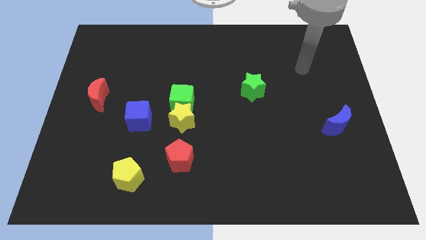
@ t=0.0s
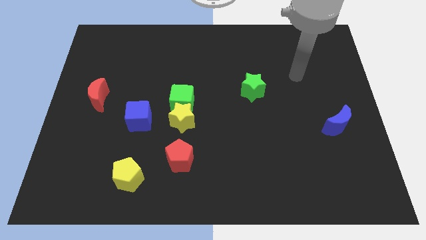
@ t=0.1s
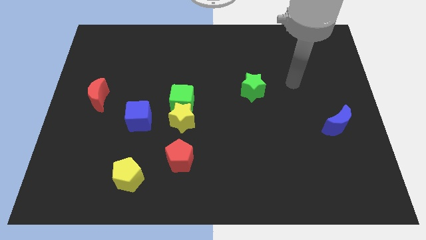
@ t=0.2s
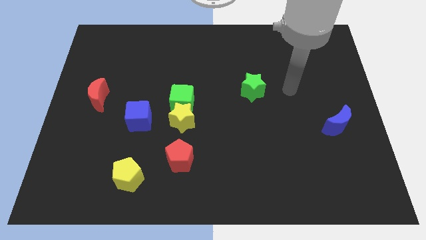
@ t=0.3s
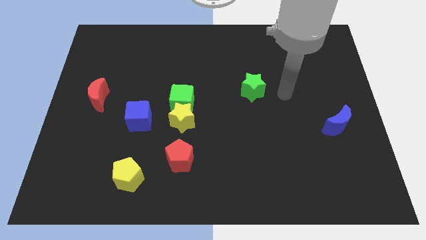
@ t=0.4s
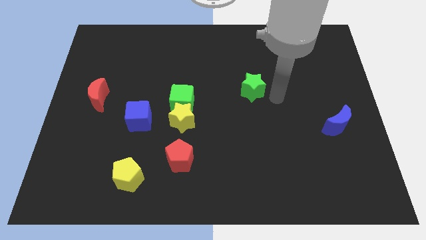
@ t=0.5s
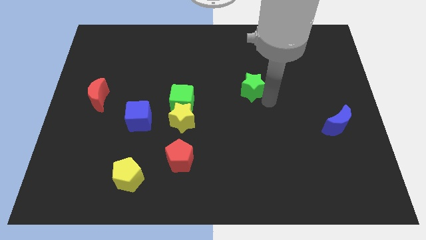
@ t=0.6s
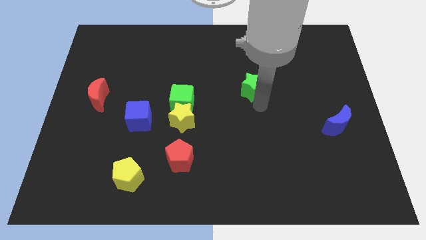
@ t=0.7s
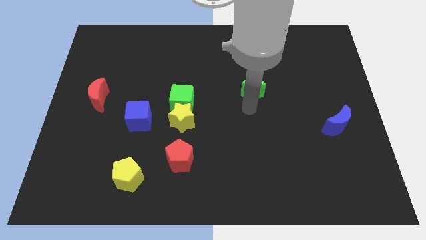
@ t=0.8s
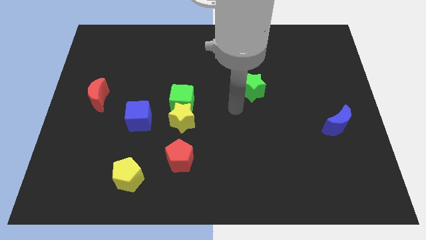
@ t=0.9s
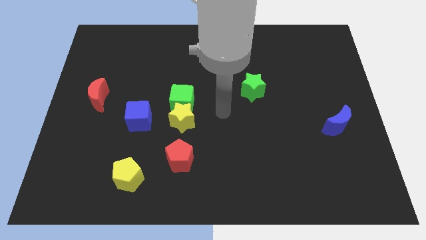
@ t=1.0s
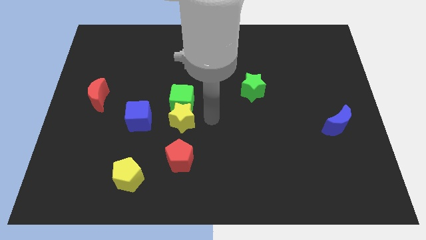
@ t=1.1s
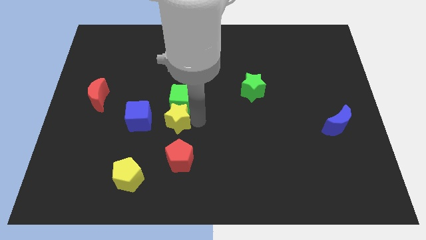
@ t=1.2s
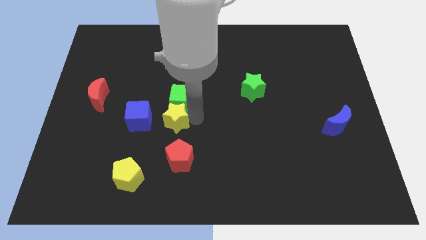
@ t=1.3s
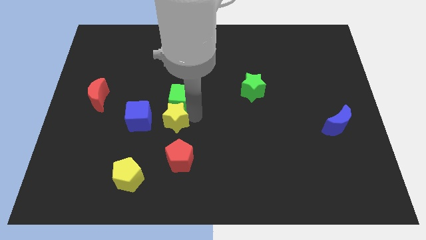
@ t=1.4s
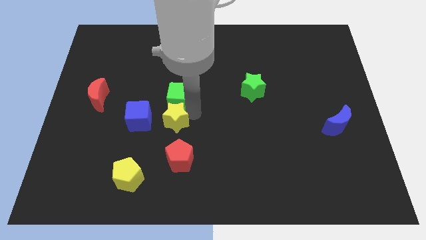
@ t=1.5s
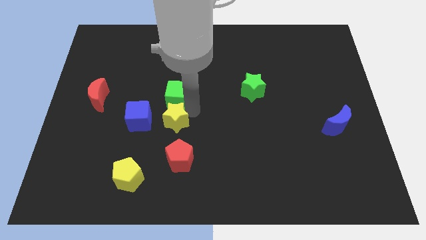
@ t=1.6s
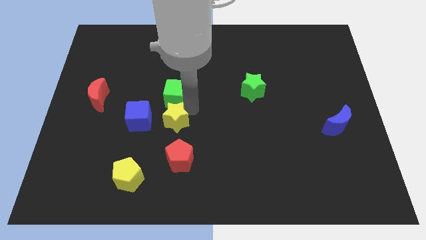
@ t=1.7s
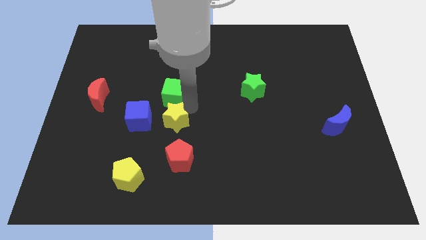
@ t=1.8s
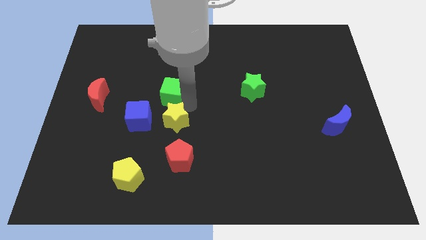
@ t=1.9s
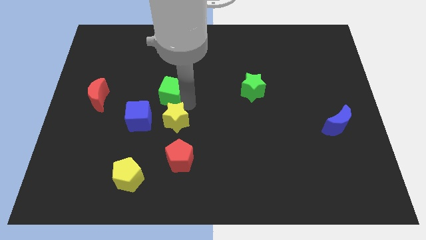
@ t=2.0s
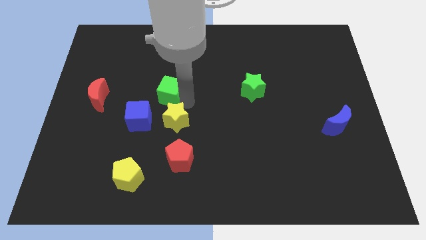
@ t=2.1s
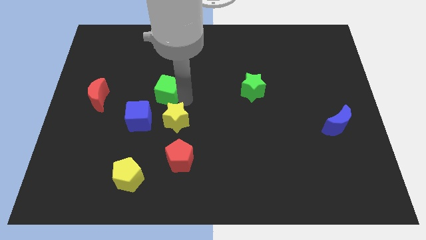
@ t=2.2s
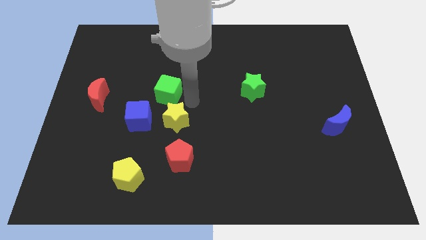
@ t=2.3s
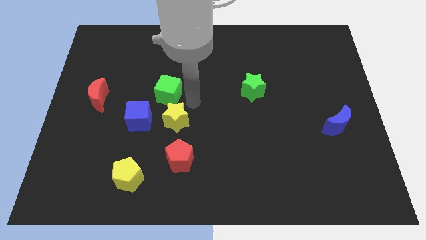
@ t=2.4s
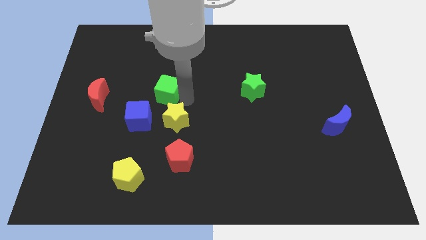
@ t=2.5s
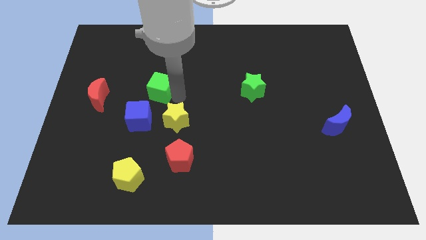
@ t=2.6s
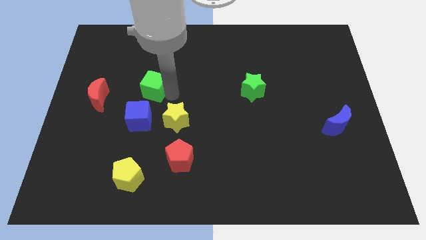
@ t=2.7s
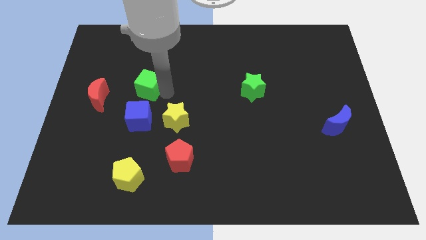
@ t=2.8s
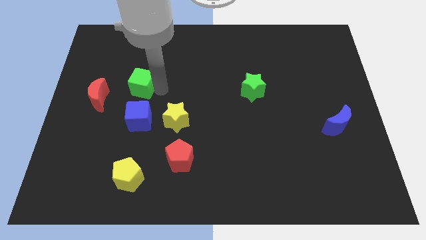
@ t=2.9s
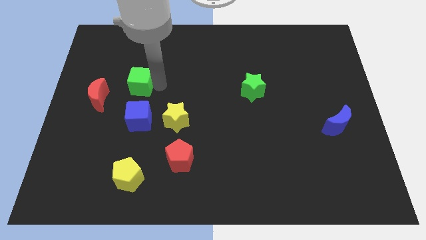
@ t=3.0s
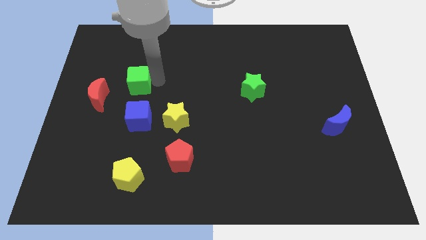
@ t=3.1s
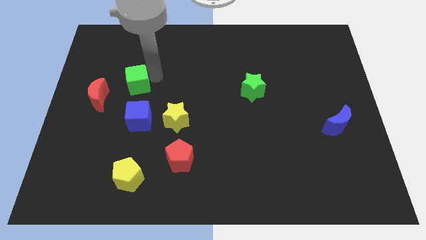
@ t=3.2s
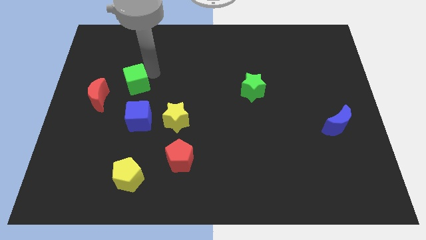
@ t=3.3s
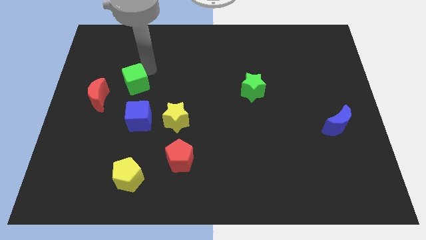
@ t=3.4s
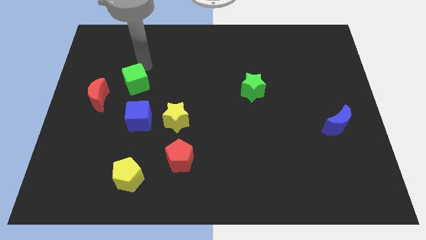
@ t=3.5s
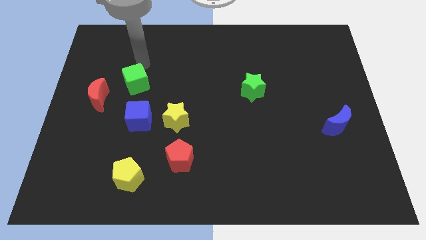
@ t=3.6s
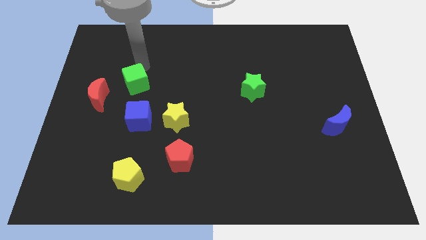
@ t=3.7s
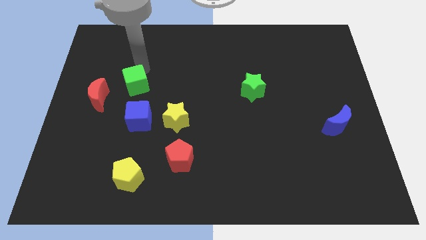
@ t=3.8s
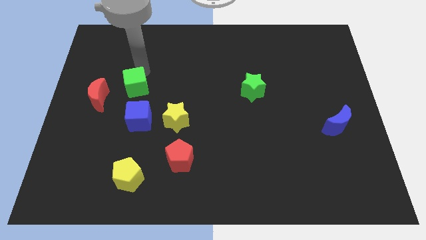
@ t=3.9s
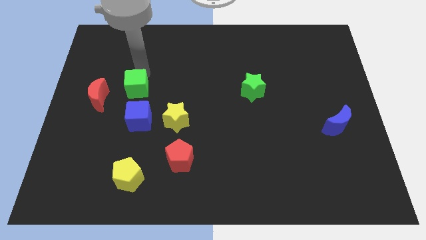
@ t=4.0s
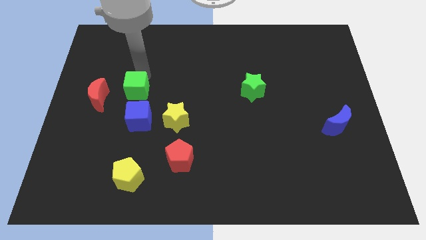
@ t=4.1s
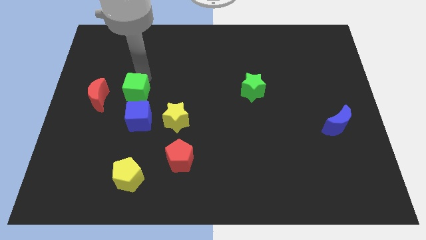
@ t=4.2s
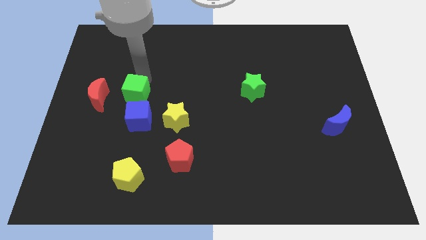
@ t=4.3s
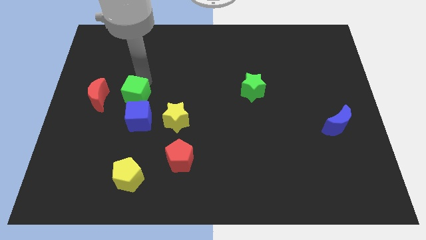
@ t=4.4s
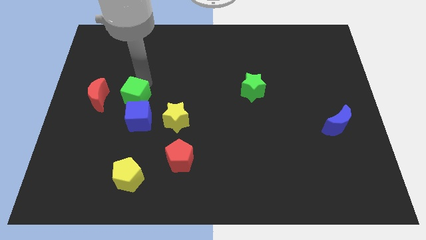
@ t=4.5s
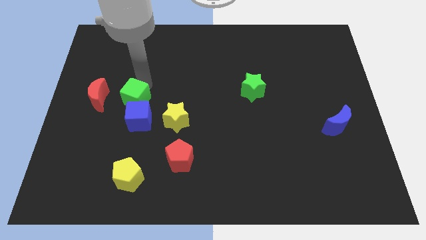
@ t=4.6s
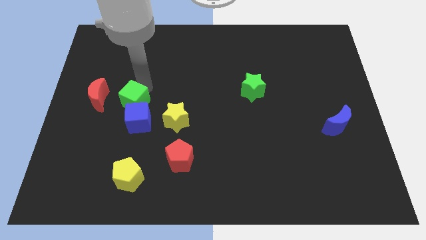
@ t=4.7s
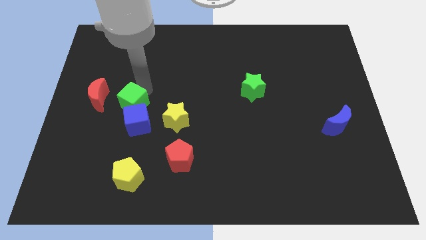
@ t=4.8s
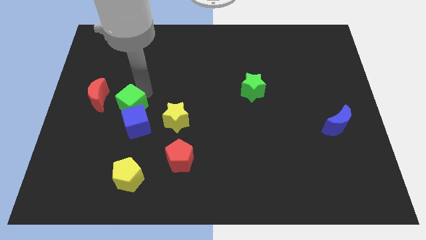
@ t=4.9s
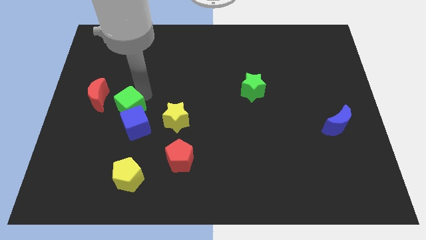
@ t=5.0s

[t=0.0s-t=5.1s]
slightly push the green cube downwards and to the left

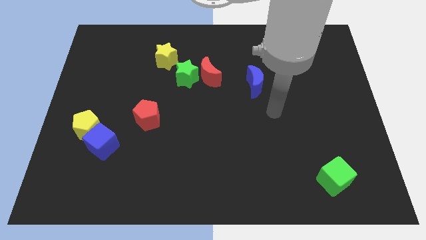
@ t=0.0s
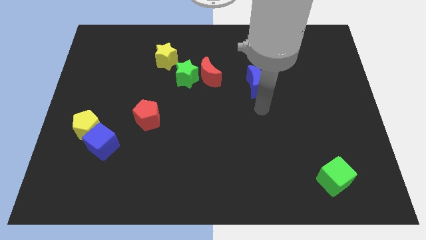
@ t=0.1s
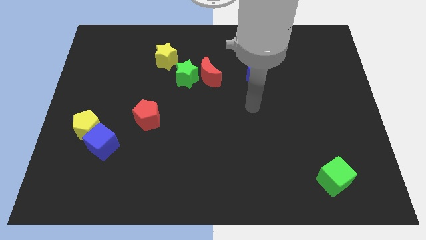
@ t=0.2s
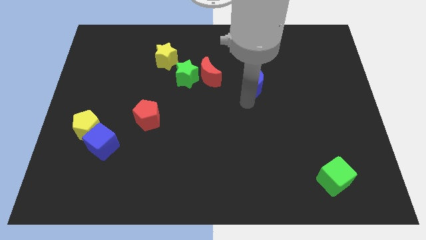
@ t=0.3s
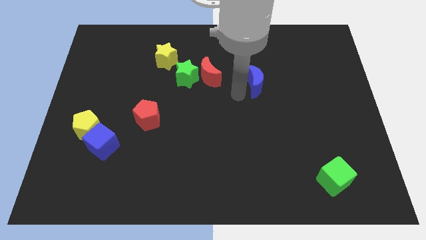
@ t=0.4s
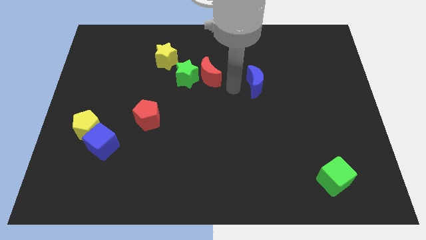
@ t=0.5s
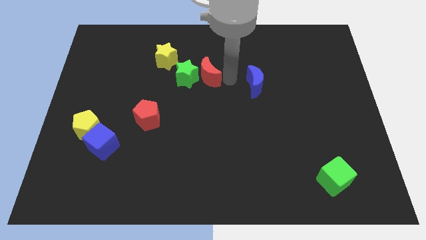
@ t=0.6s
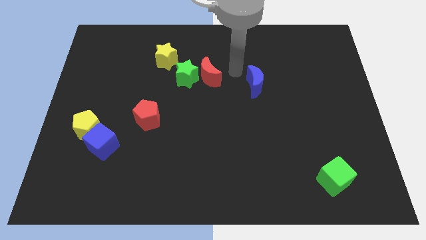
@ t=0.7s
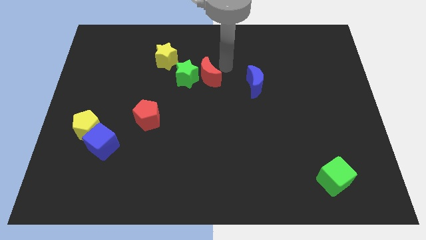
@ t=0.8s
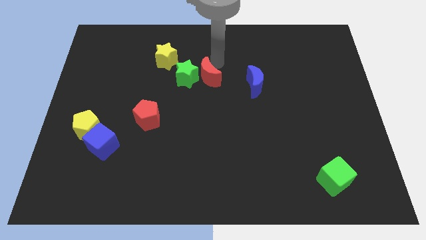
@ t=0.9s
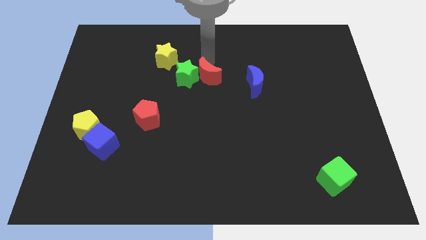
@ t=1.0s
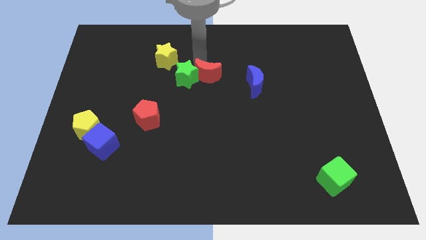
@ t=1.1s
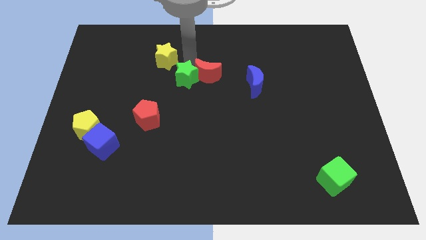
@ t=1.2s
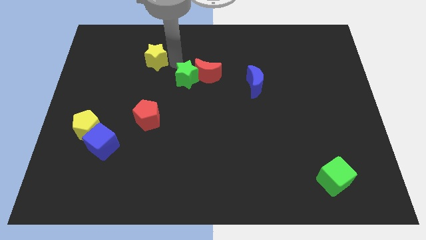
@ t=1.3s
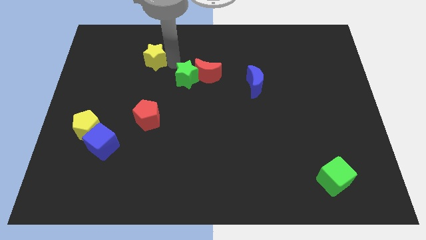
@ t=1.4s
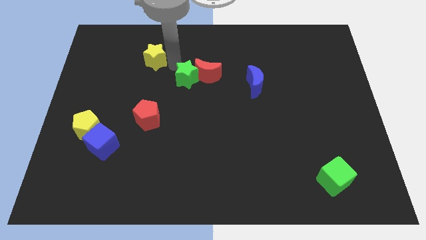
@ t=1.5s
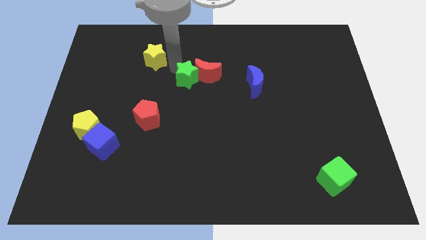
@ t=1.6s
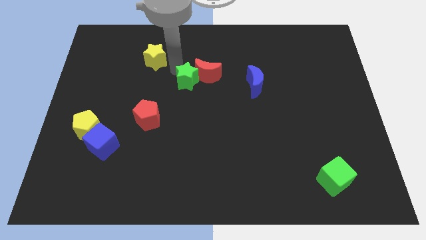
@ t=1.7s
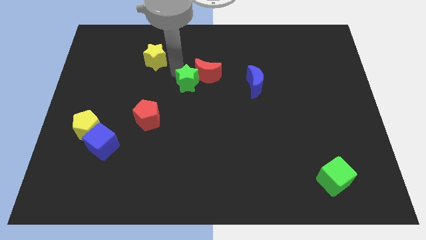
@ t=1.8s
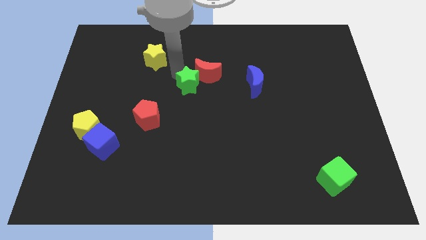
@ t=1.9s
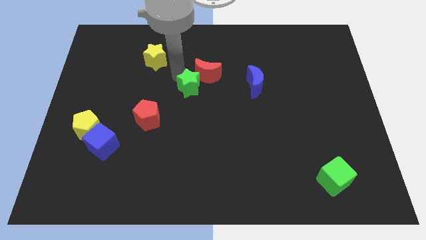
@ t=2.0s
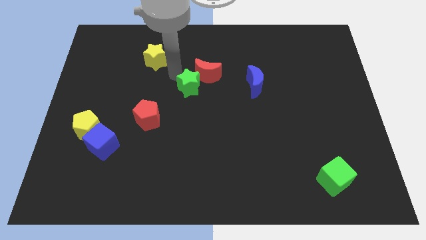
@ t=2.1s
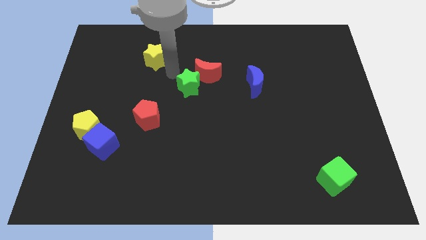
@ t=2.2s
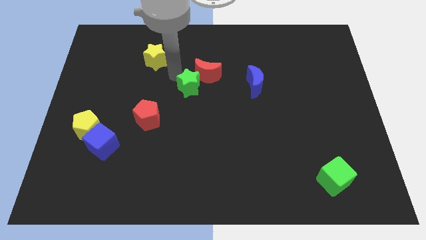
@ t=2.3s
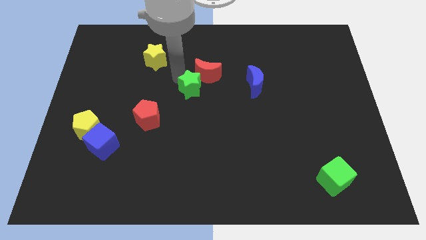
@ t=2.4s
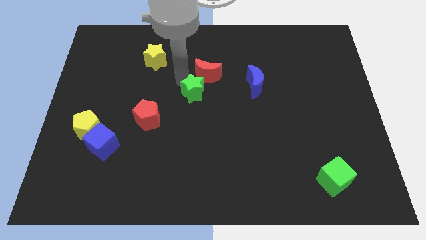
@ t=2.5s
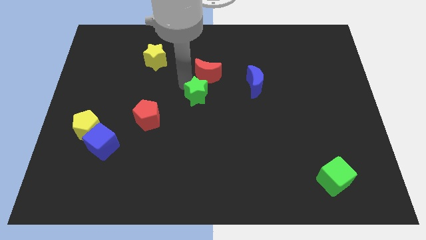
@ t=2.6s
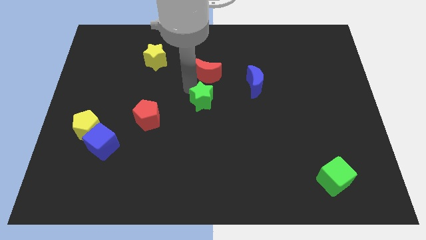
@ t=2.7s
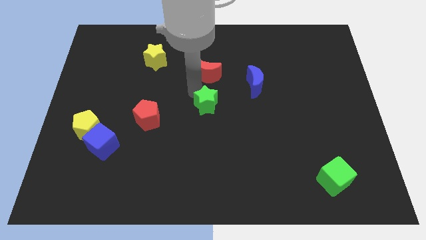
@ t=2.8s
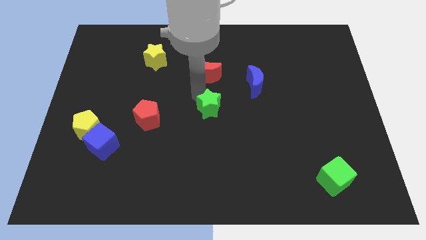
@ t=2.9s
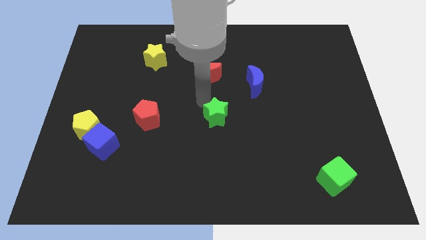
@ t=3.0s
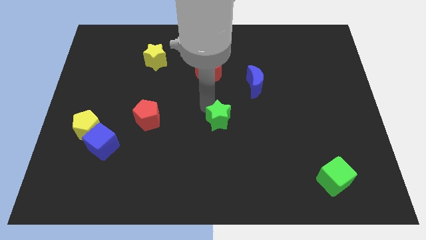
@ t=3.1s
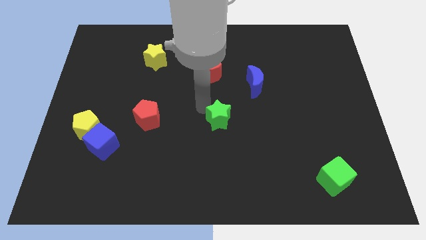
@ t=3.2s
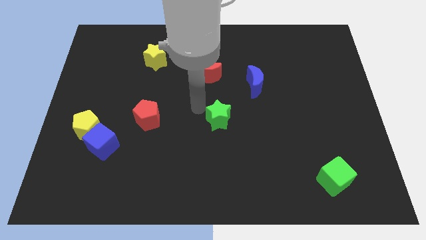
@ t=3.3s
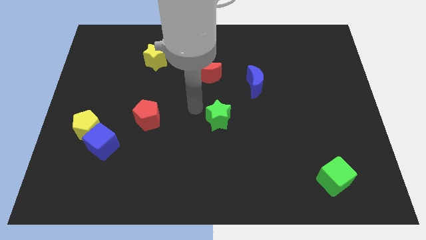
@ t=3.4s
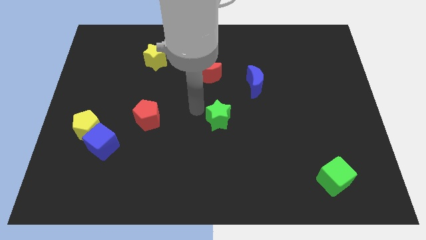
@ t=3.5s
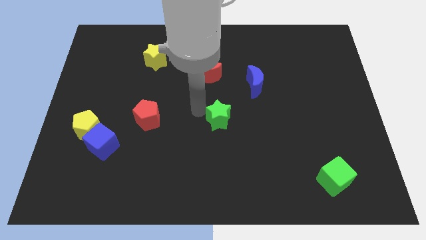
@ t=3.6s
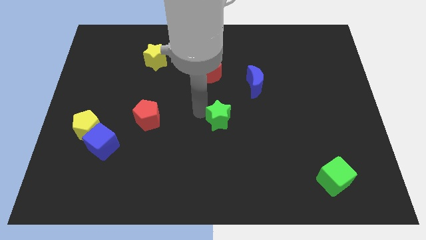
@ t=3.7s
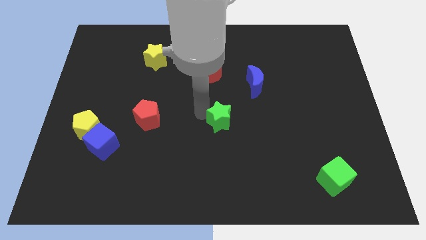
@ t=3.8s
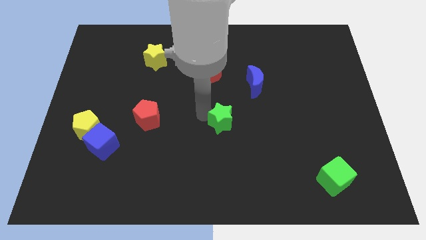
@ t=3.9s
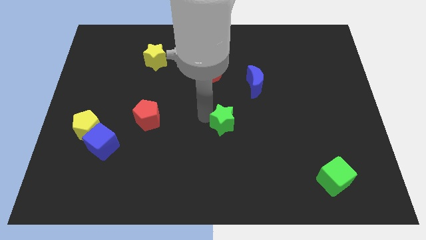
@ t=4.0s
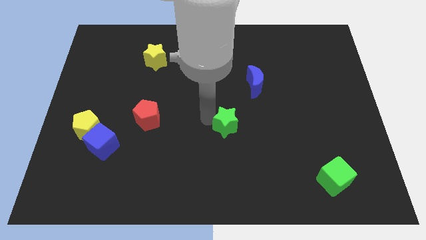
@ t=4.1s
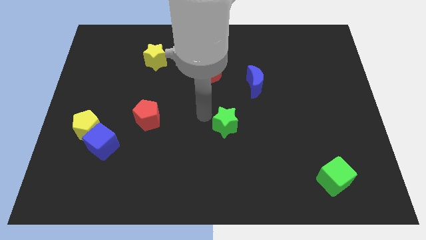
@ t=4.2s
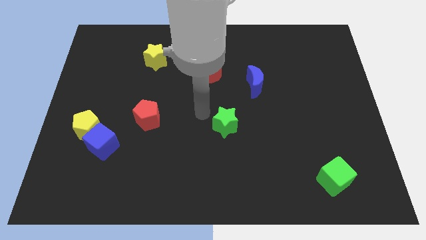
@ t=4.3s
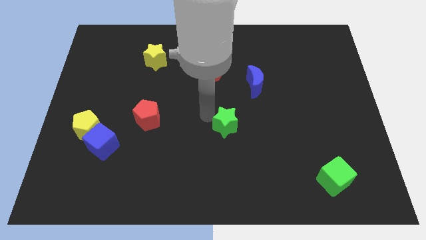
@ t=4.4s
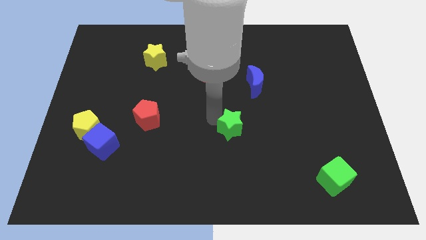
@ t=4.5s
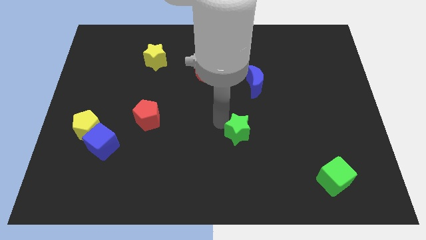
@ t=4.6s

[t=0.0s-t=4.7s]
slide the green star down and then right
